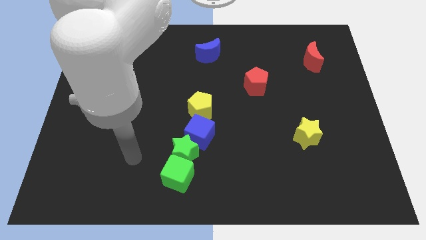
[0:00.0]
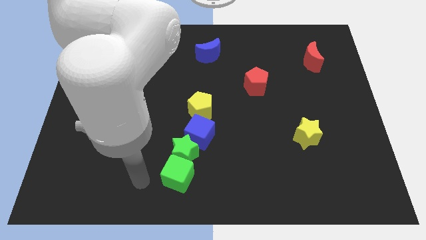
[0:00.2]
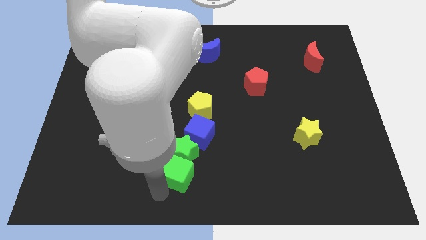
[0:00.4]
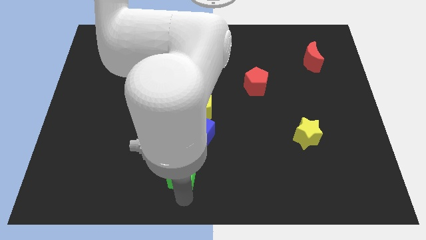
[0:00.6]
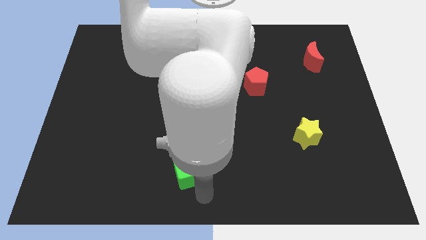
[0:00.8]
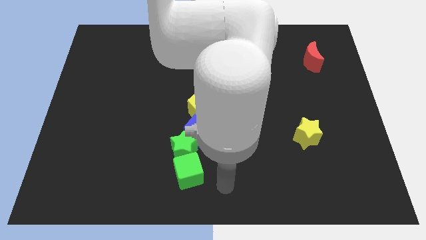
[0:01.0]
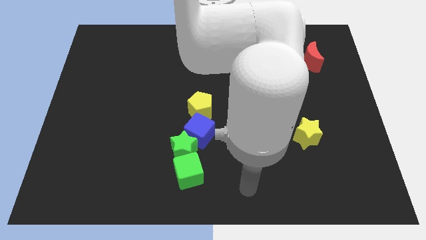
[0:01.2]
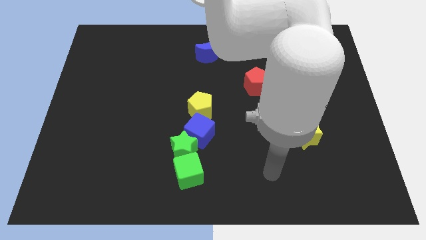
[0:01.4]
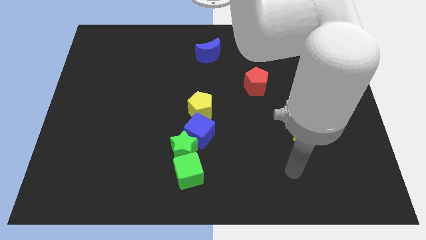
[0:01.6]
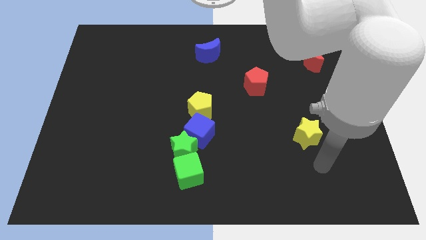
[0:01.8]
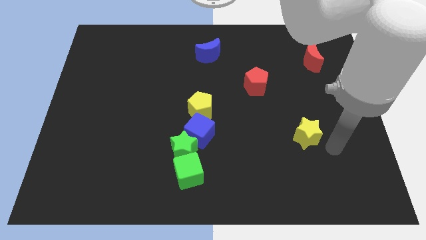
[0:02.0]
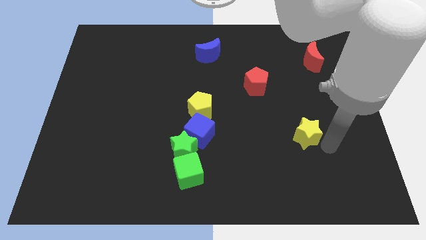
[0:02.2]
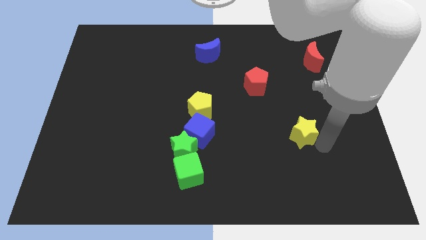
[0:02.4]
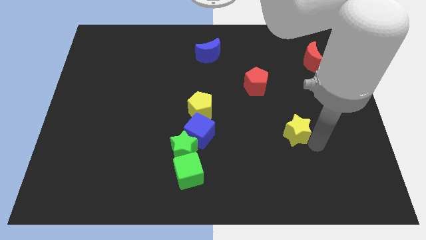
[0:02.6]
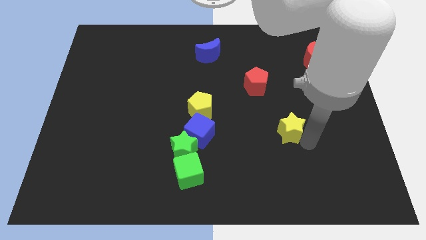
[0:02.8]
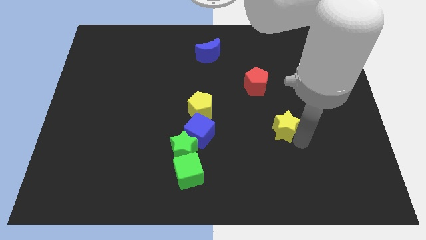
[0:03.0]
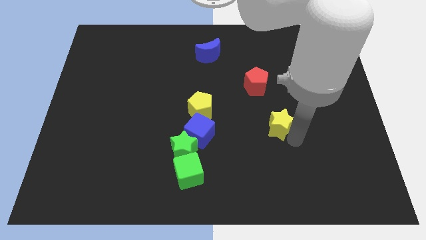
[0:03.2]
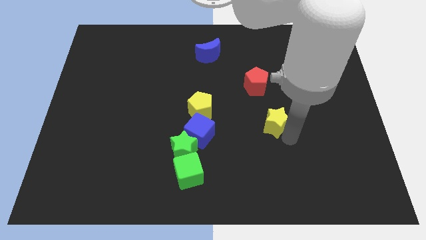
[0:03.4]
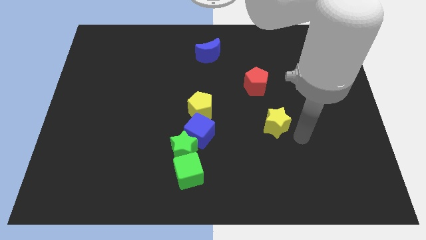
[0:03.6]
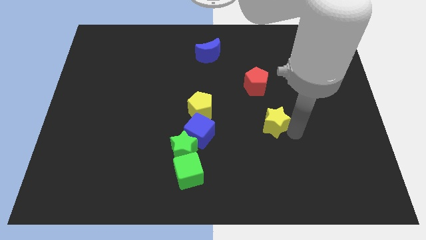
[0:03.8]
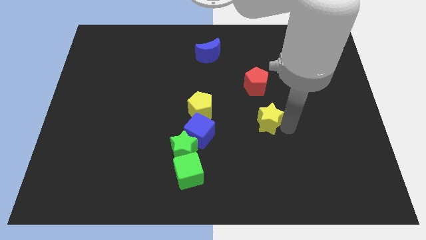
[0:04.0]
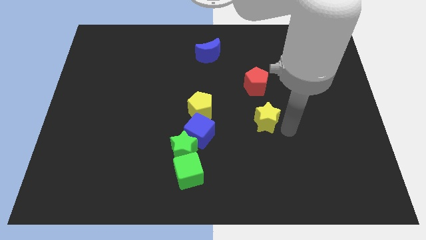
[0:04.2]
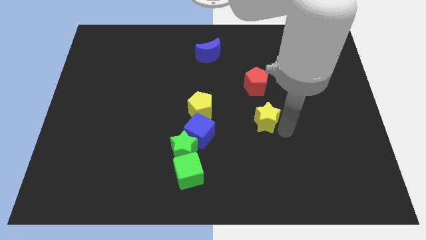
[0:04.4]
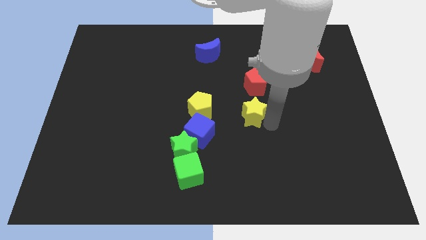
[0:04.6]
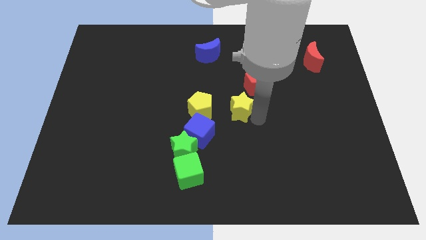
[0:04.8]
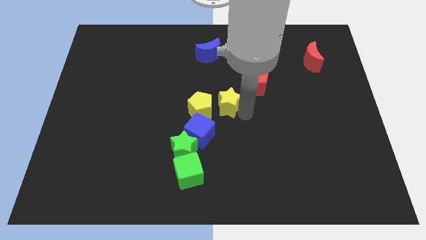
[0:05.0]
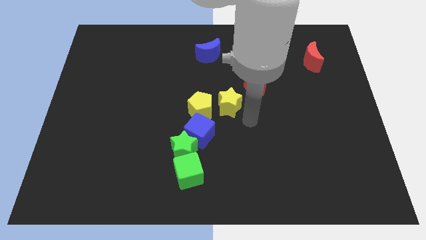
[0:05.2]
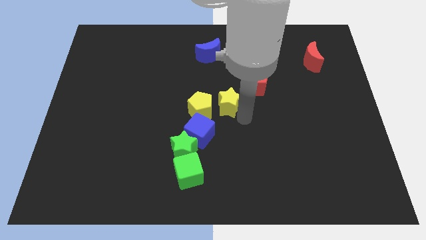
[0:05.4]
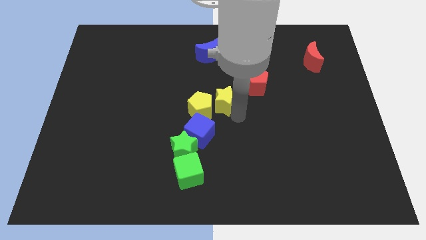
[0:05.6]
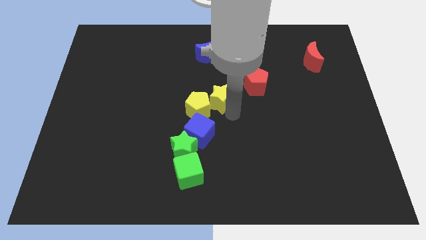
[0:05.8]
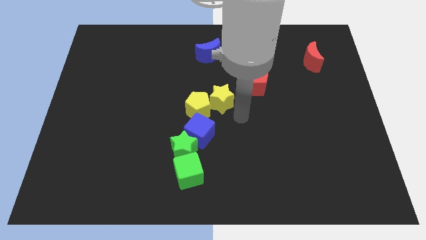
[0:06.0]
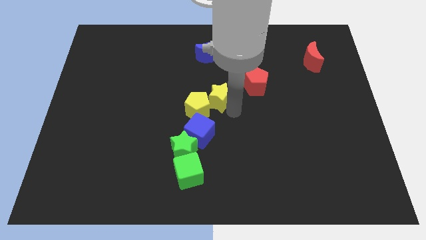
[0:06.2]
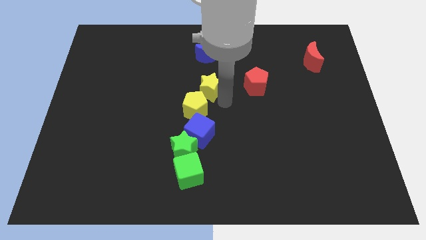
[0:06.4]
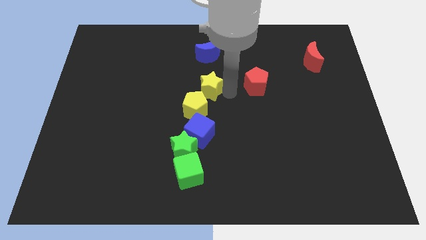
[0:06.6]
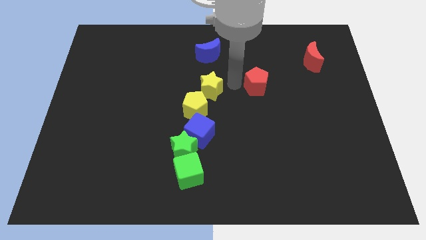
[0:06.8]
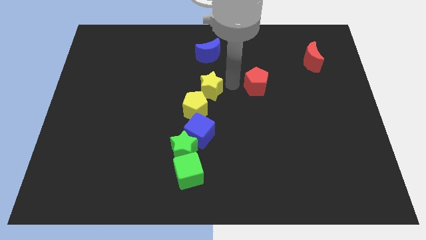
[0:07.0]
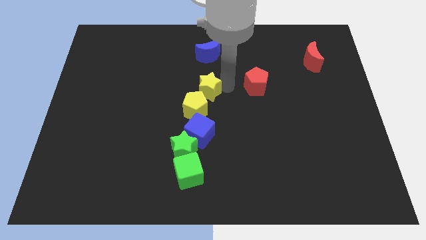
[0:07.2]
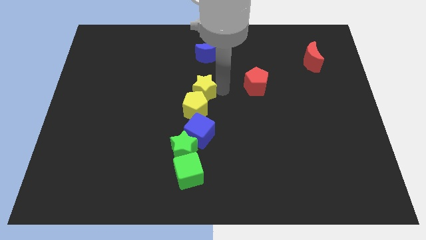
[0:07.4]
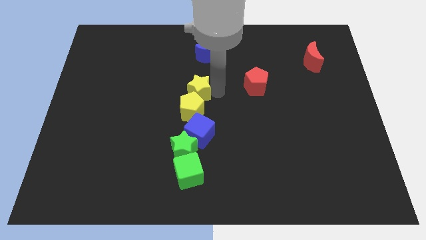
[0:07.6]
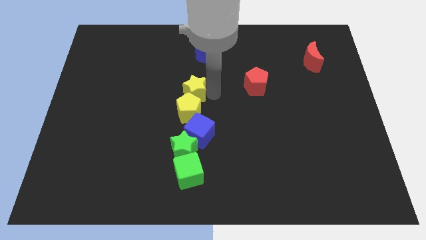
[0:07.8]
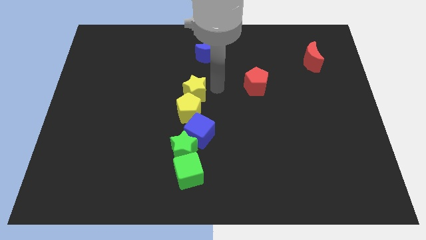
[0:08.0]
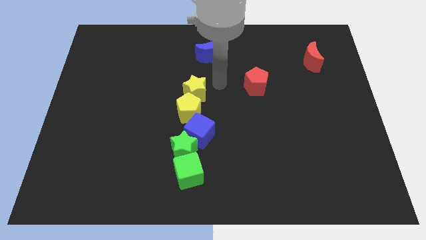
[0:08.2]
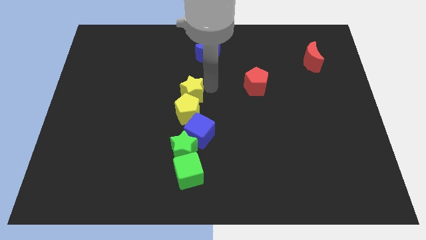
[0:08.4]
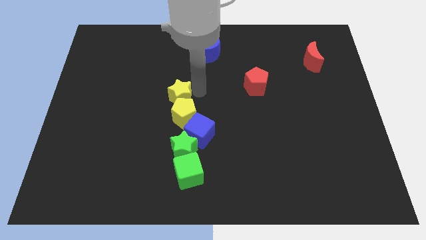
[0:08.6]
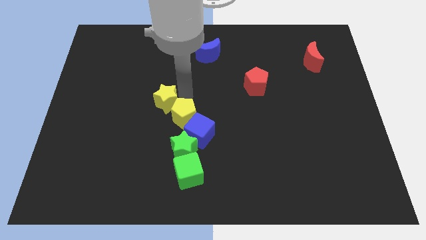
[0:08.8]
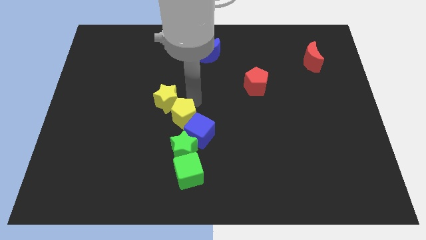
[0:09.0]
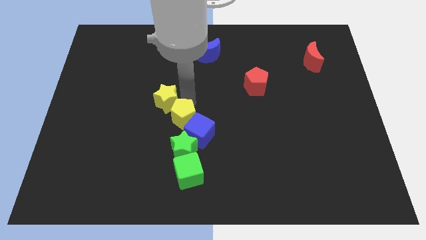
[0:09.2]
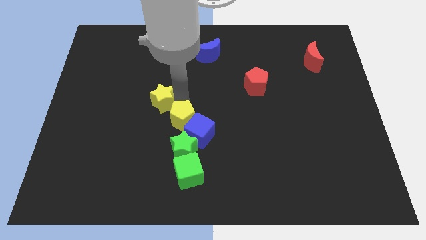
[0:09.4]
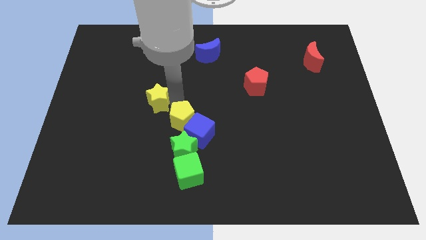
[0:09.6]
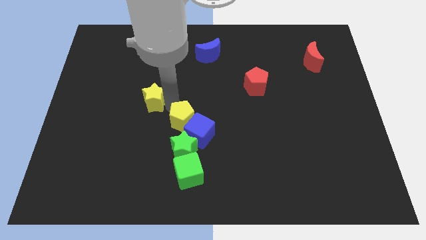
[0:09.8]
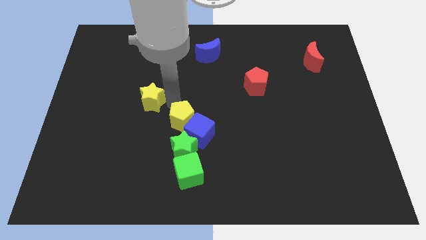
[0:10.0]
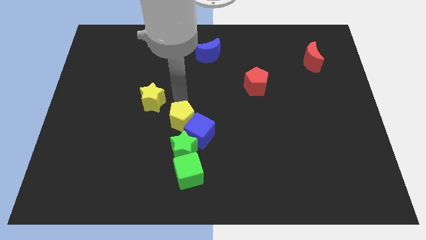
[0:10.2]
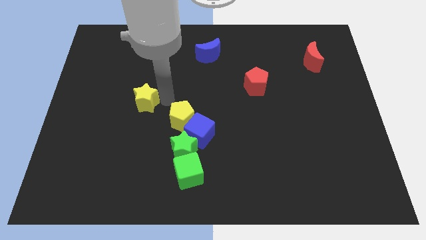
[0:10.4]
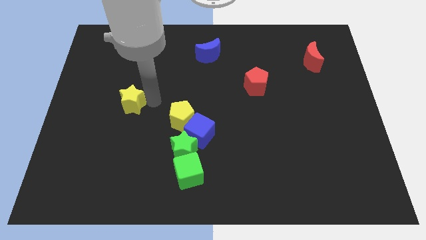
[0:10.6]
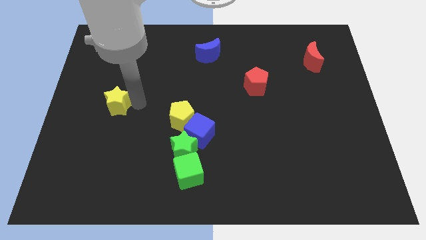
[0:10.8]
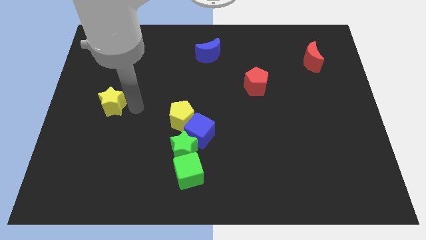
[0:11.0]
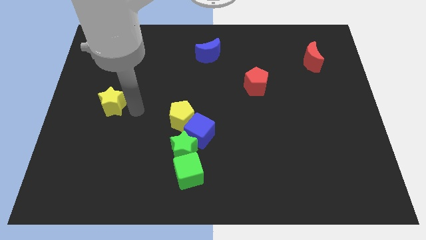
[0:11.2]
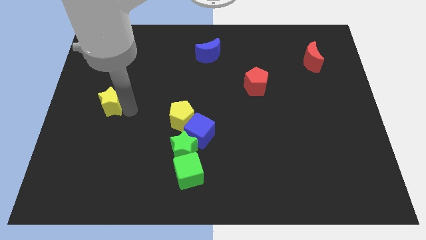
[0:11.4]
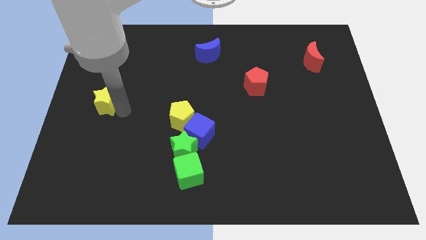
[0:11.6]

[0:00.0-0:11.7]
push the yellow star to the left side

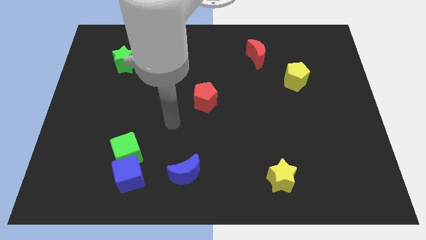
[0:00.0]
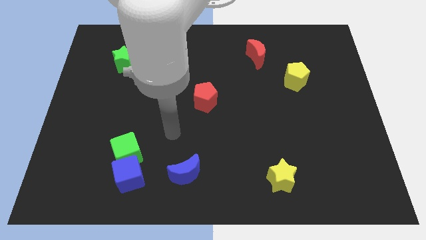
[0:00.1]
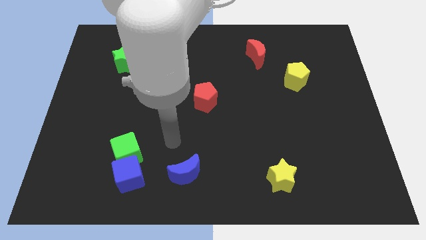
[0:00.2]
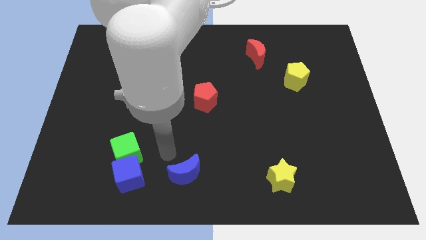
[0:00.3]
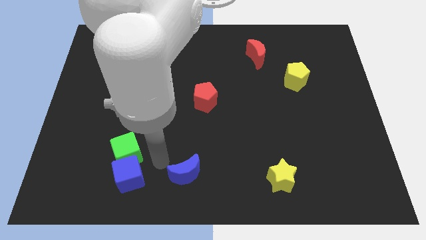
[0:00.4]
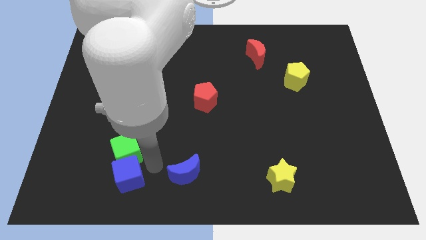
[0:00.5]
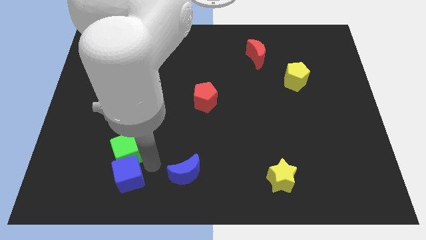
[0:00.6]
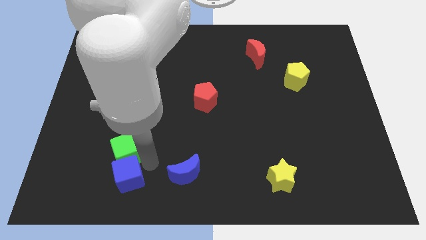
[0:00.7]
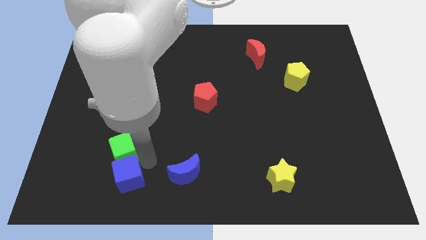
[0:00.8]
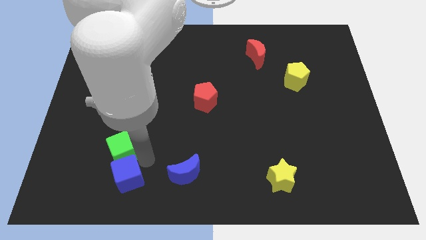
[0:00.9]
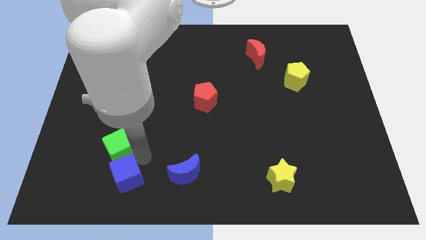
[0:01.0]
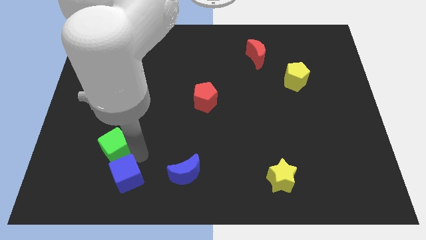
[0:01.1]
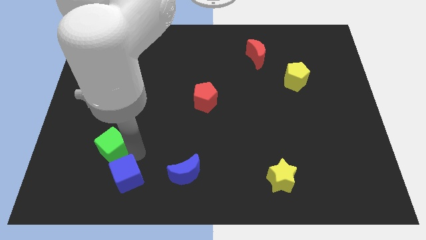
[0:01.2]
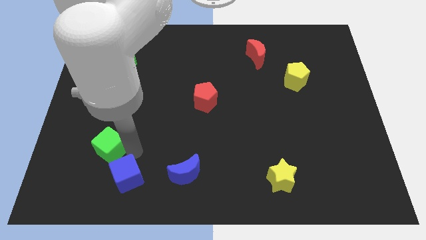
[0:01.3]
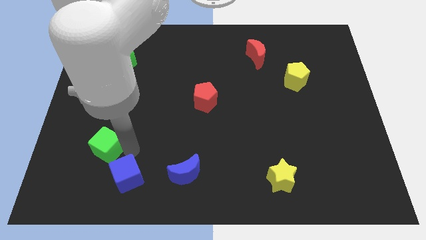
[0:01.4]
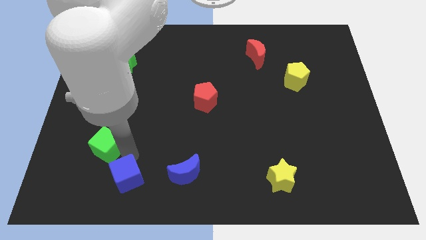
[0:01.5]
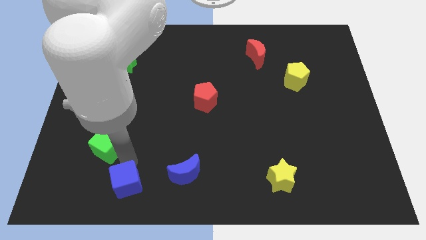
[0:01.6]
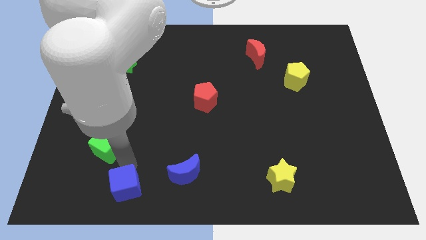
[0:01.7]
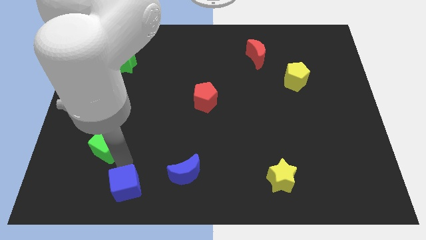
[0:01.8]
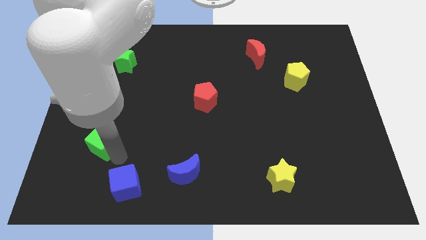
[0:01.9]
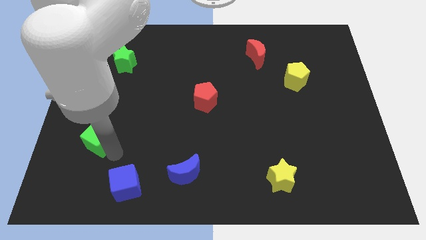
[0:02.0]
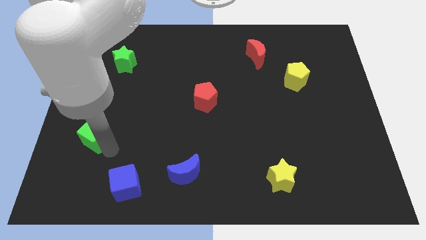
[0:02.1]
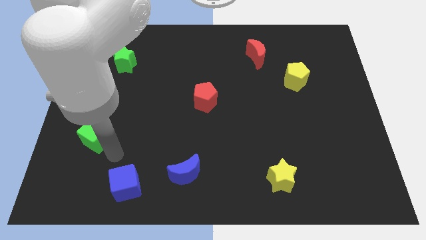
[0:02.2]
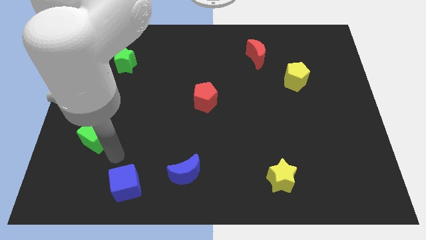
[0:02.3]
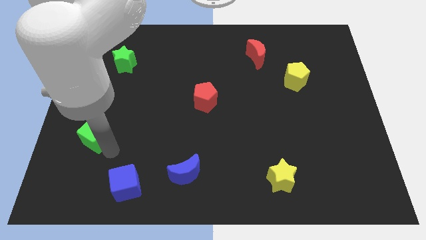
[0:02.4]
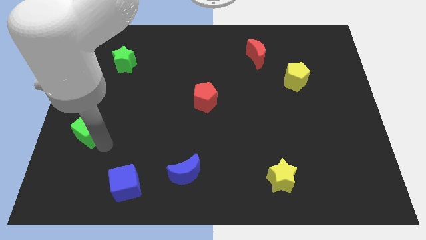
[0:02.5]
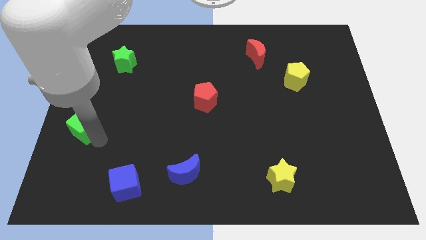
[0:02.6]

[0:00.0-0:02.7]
move the green cube to the left side of the board
